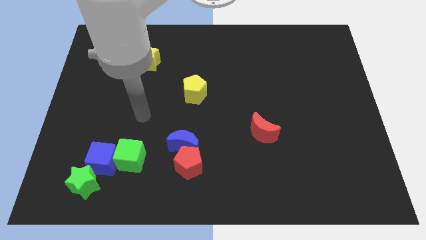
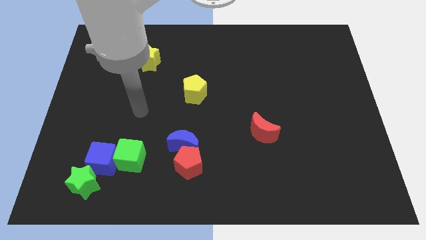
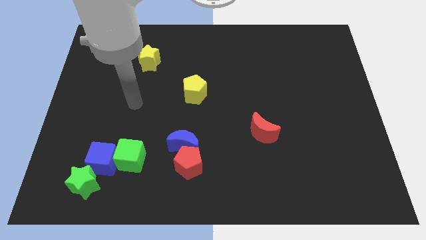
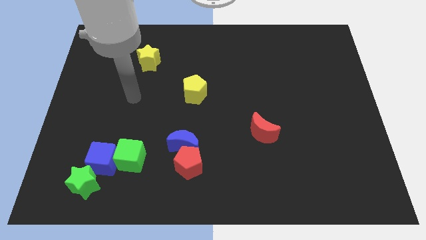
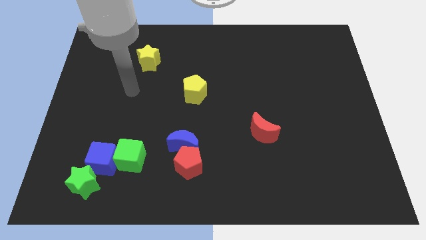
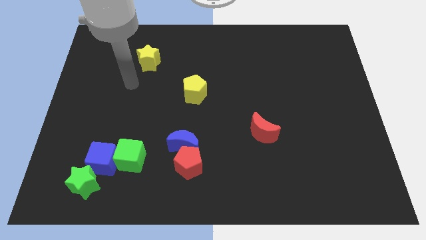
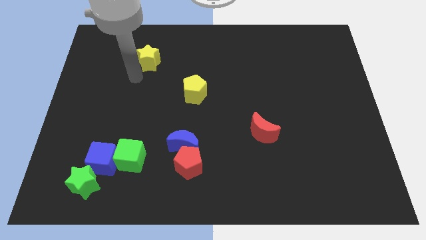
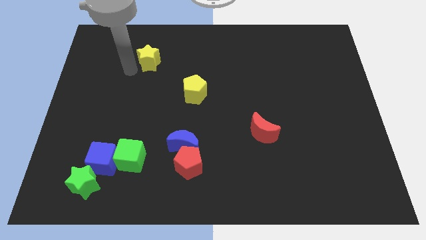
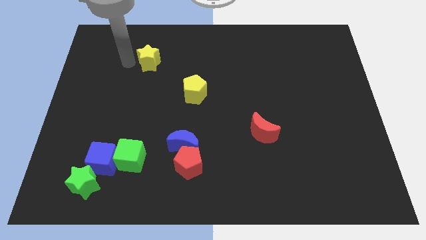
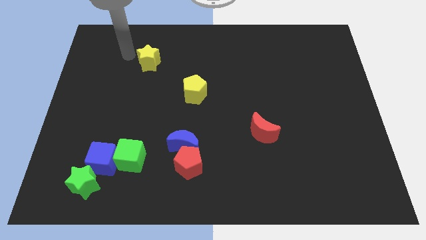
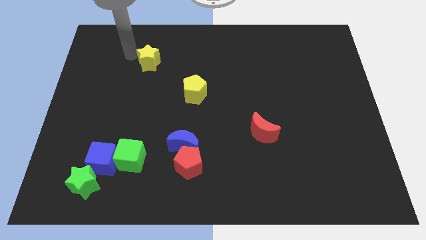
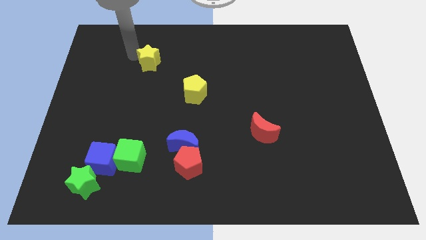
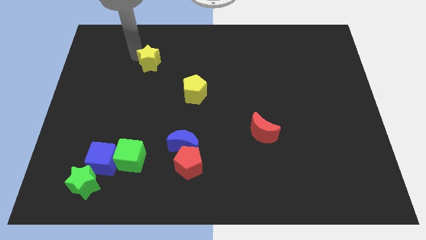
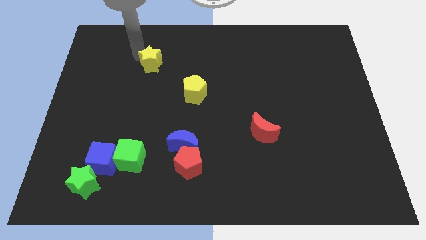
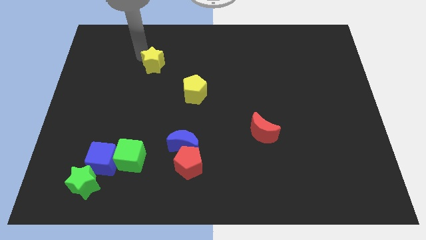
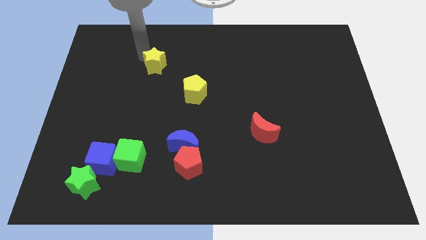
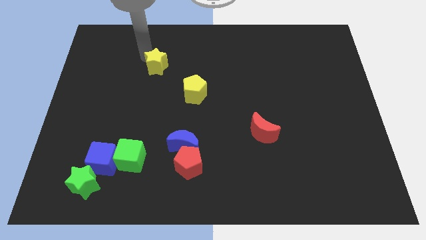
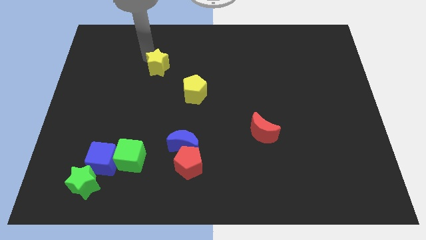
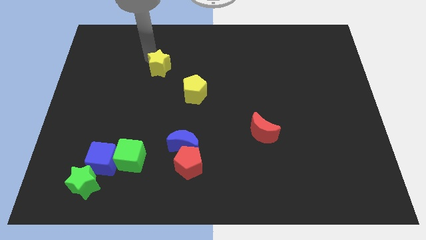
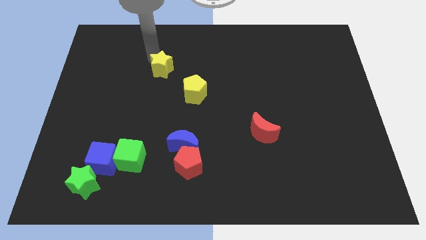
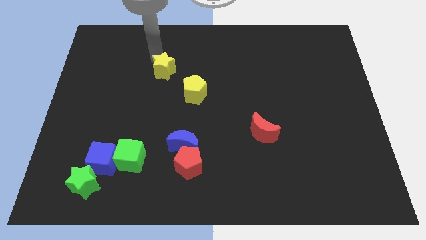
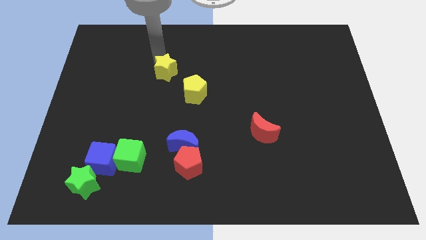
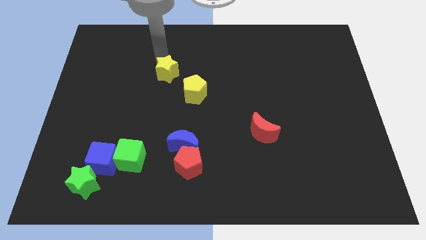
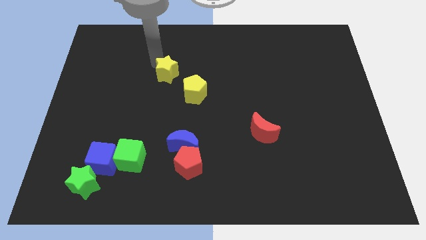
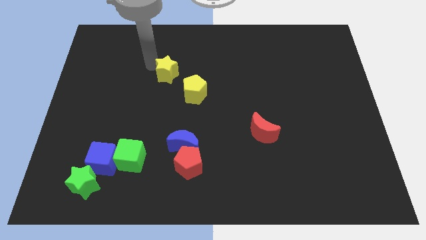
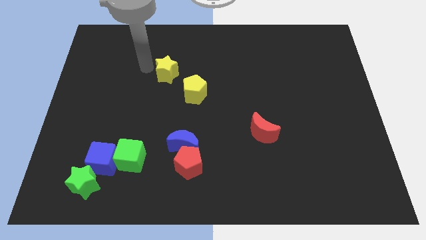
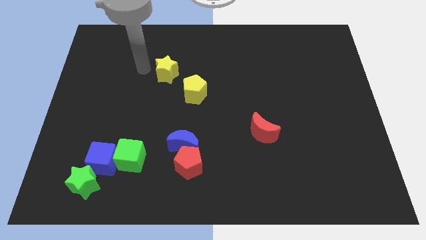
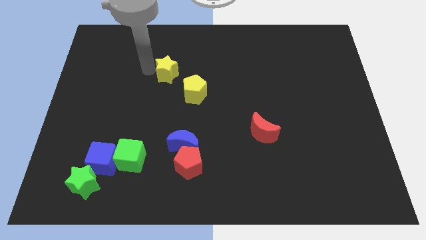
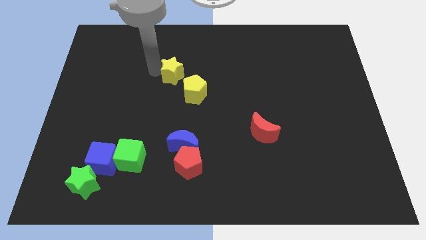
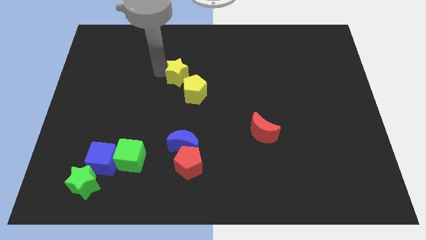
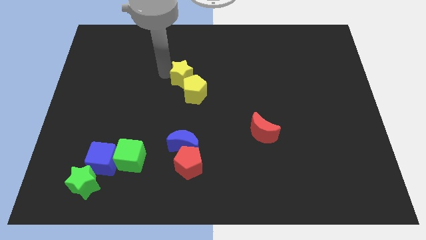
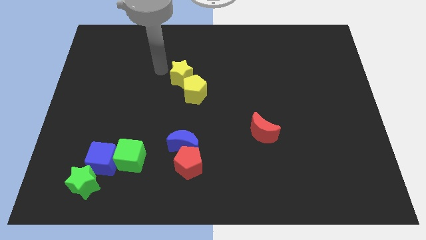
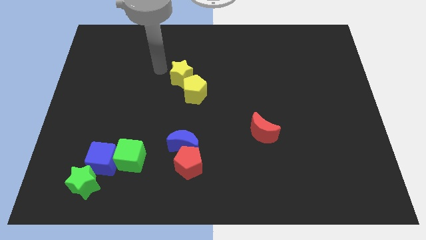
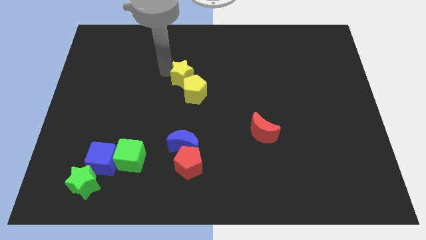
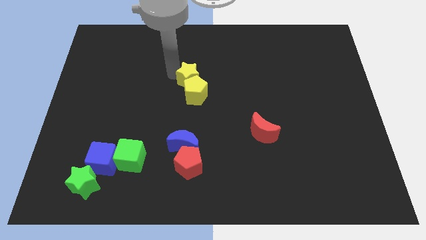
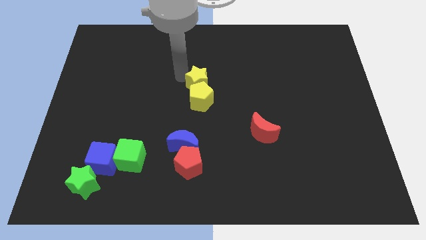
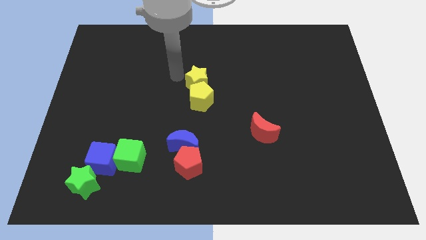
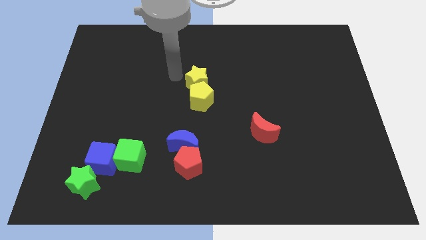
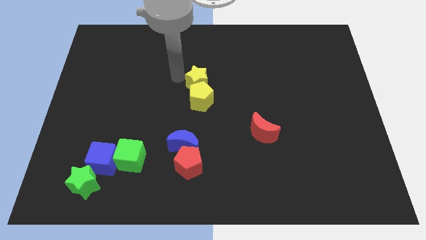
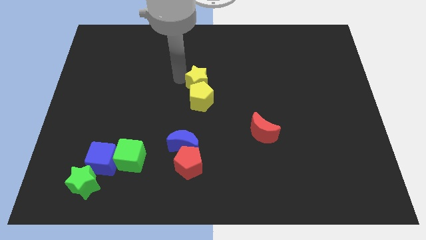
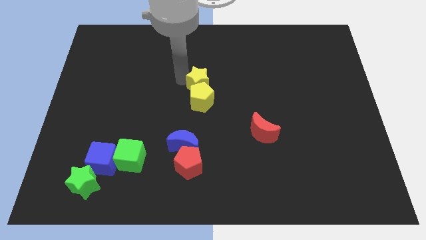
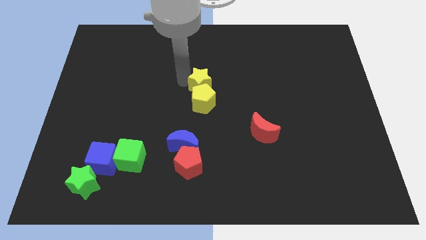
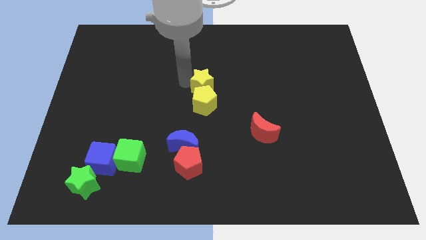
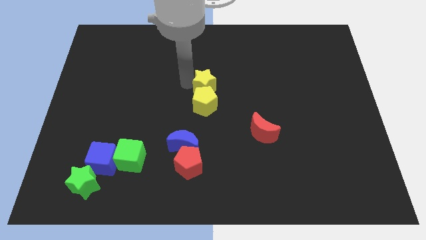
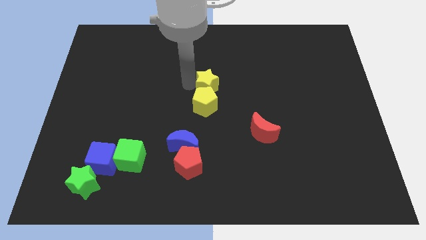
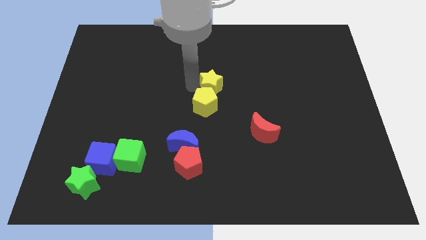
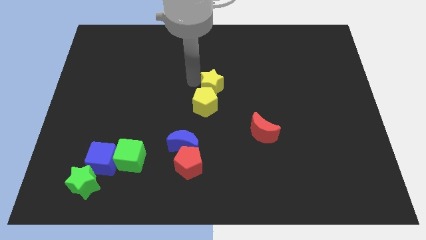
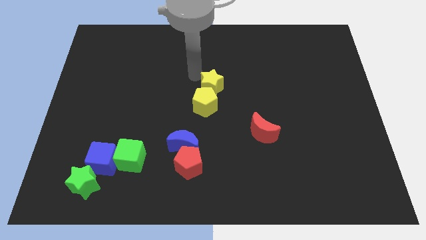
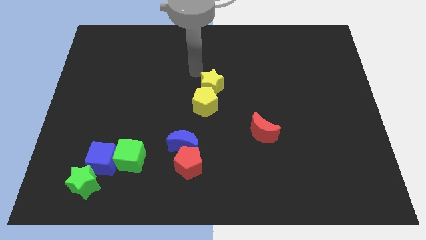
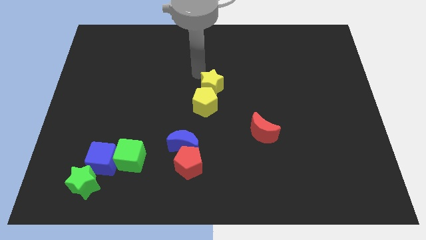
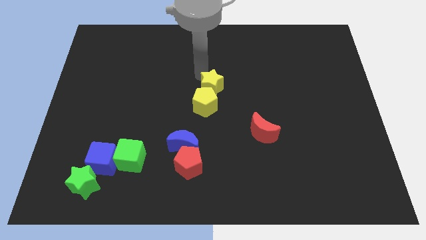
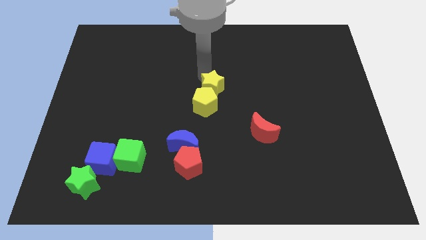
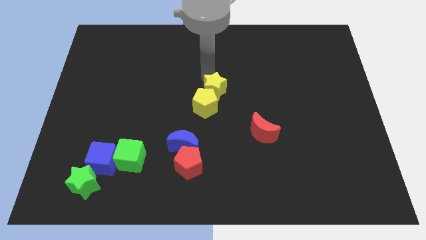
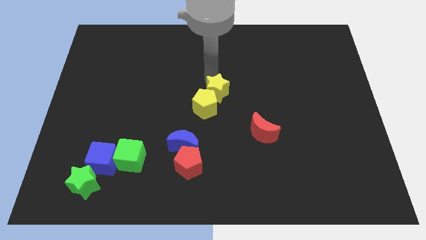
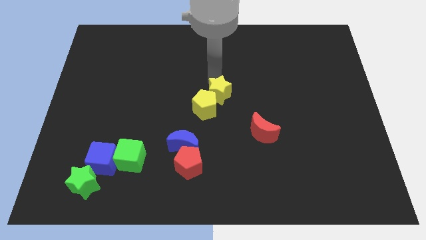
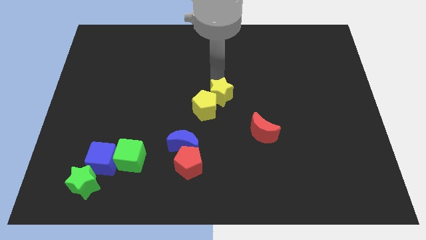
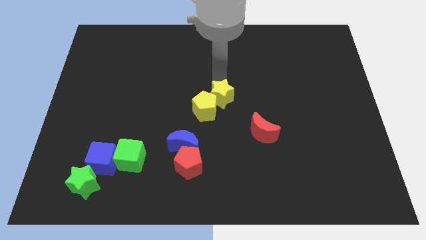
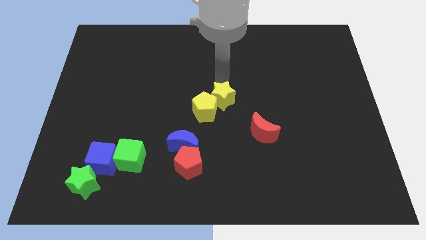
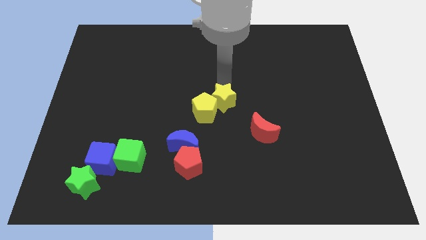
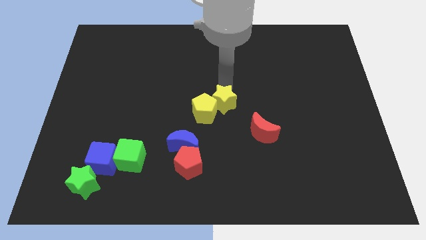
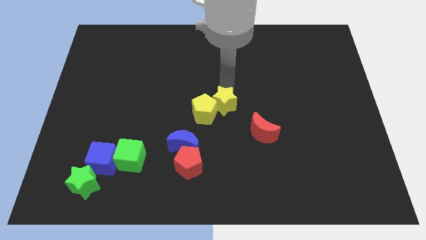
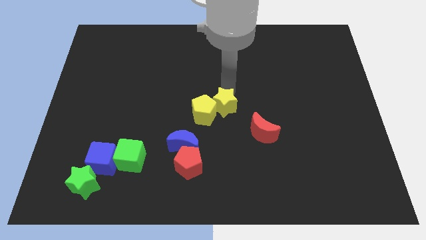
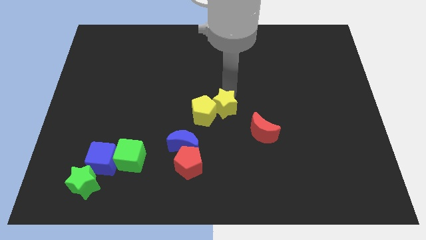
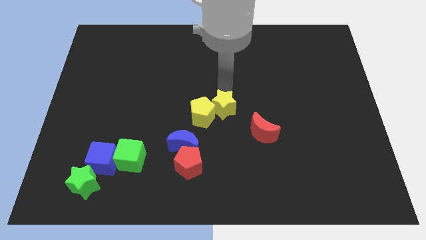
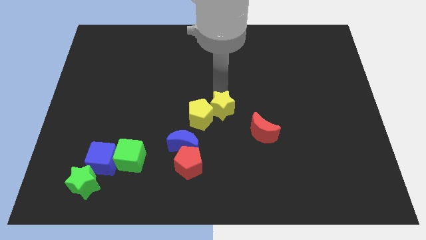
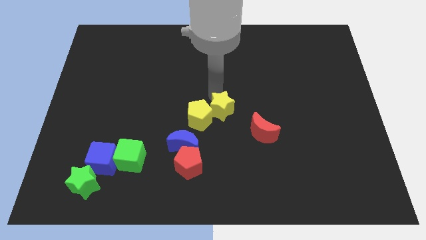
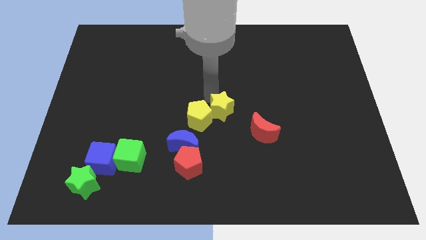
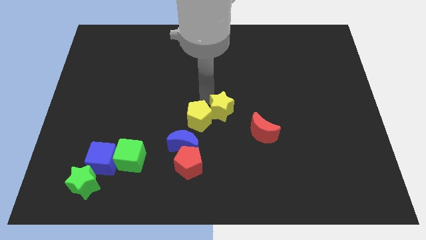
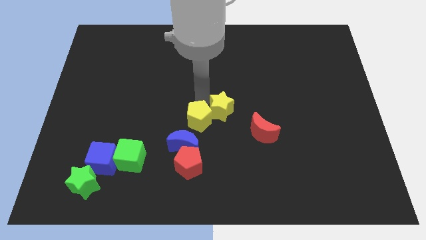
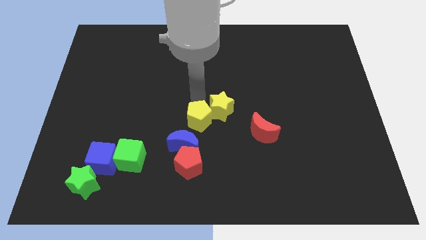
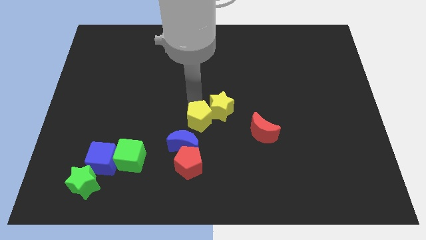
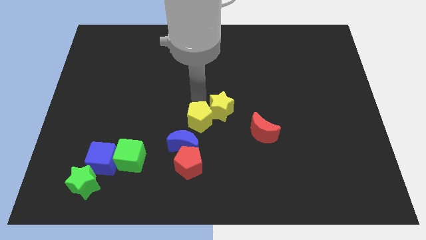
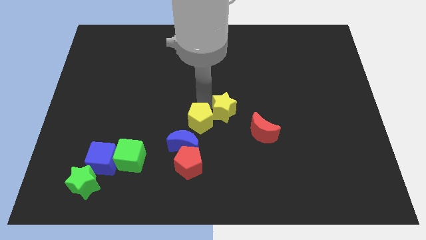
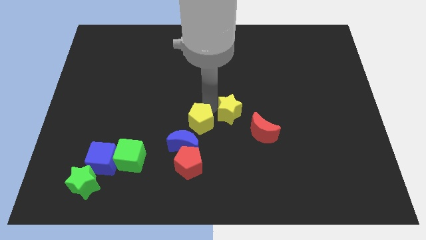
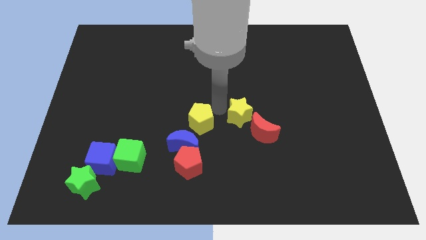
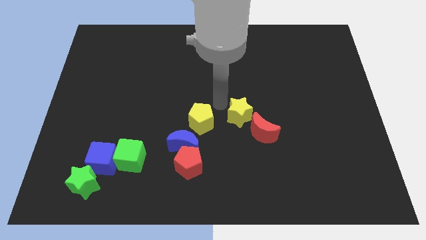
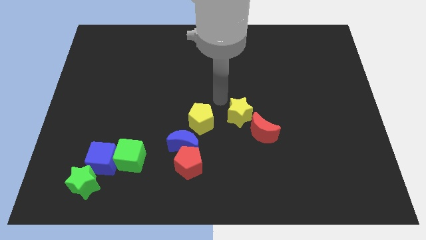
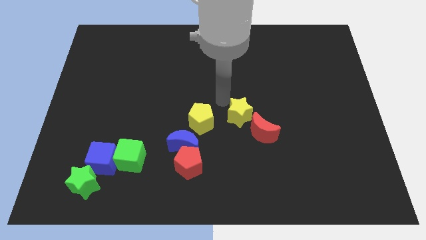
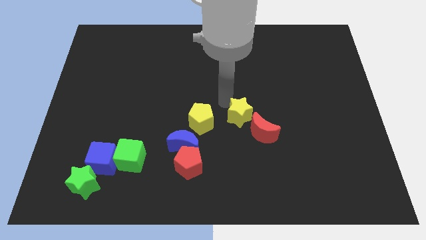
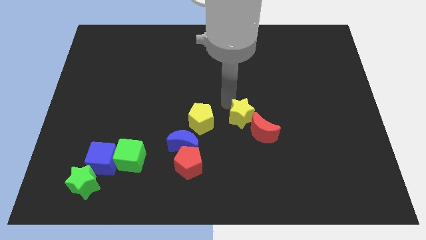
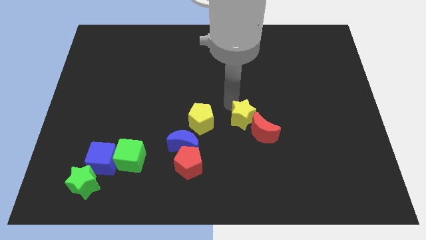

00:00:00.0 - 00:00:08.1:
push the yellow star towards the red moon
